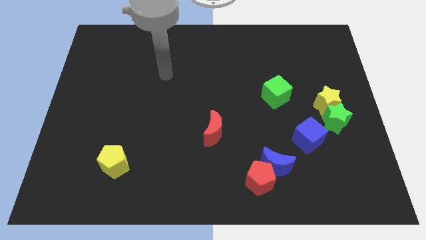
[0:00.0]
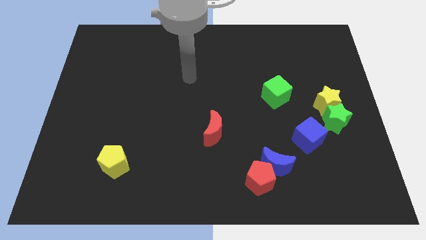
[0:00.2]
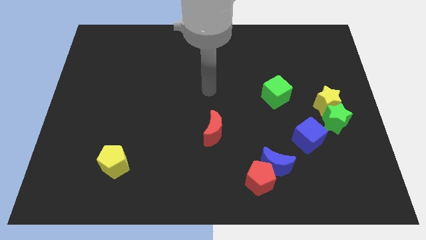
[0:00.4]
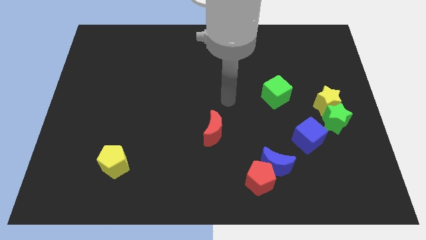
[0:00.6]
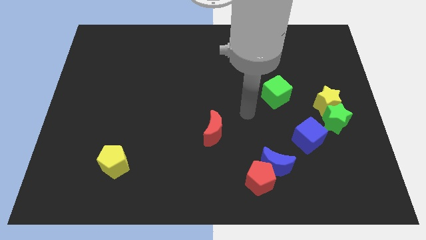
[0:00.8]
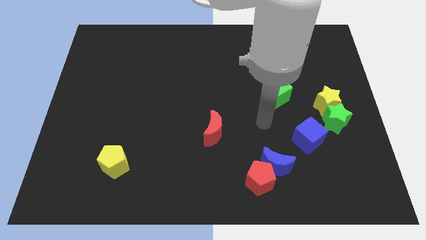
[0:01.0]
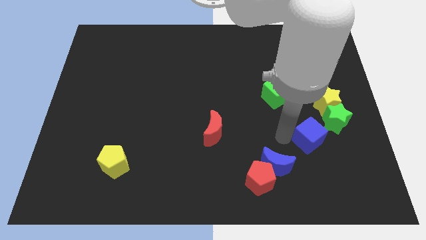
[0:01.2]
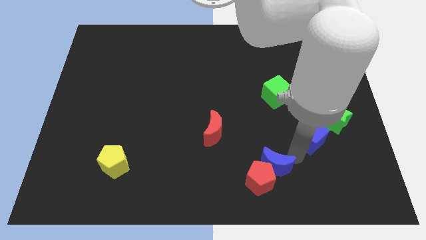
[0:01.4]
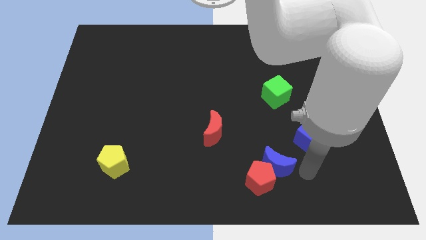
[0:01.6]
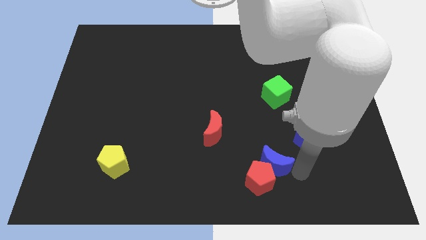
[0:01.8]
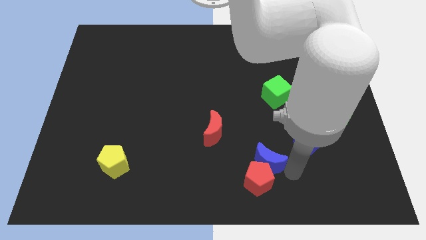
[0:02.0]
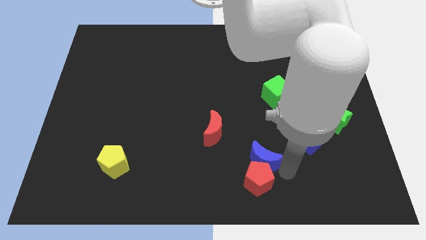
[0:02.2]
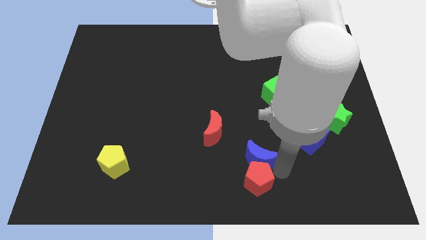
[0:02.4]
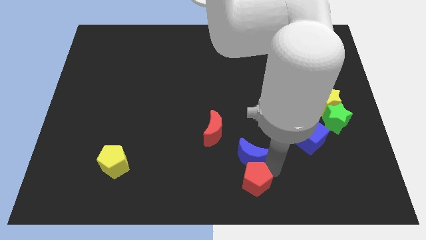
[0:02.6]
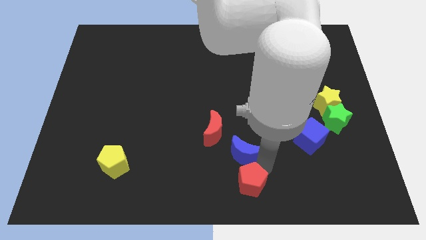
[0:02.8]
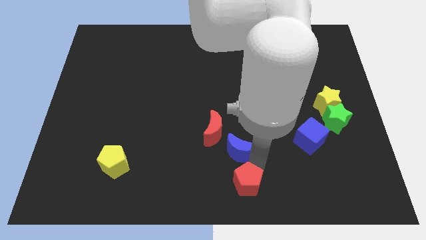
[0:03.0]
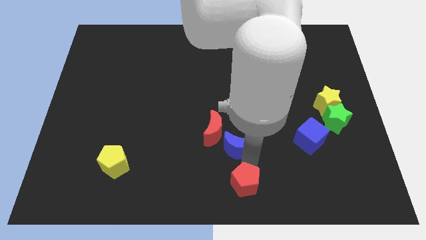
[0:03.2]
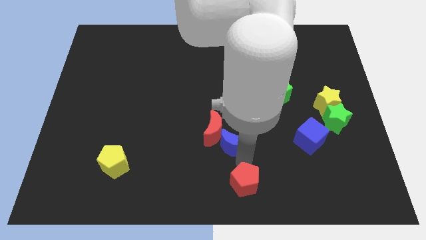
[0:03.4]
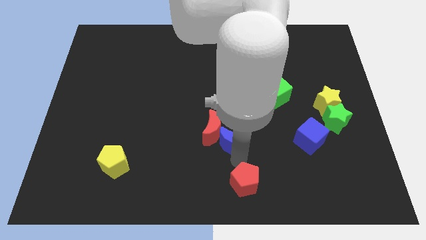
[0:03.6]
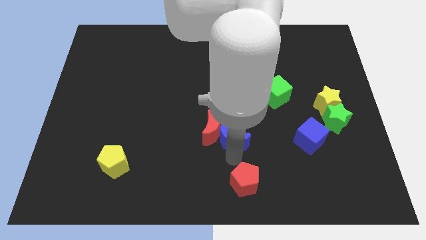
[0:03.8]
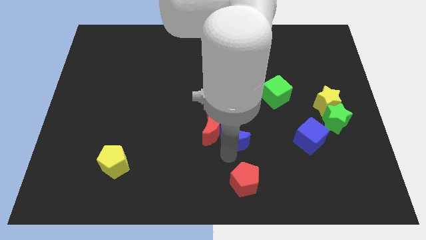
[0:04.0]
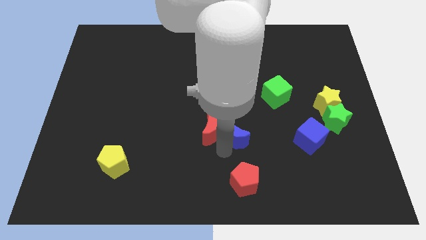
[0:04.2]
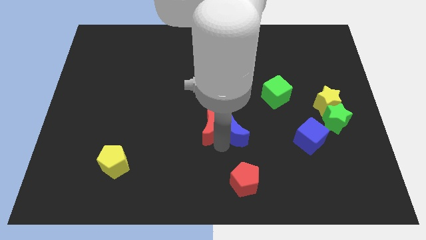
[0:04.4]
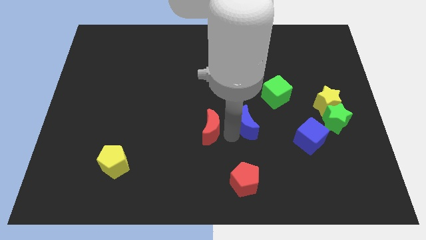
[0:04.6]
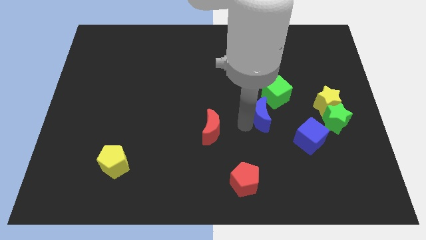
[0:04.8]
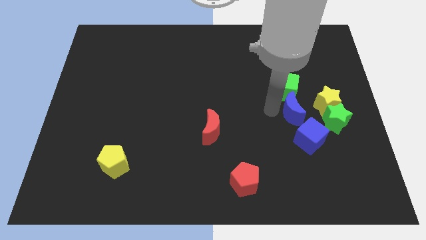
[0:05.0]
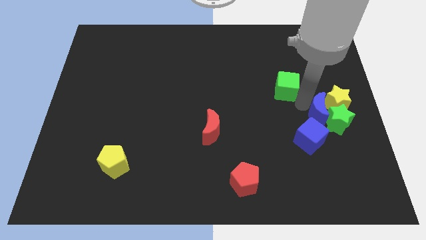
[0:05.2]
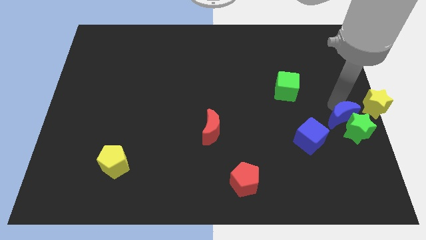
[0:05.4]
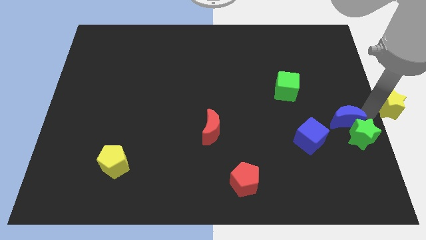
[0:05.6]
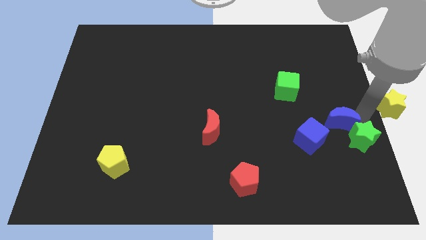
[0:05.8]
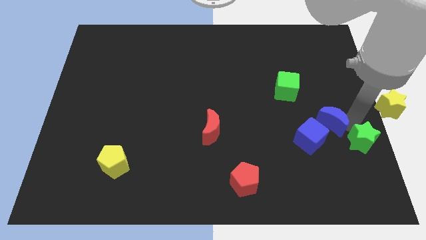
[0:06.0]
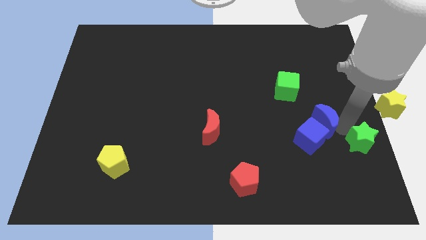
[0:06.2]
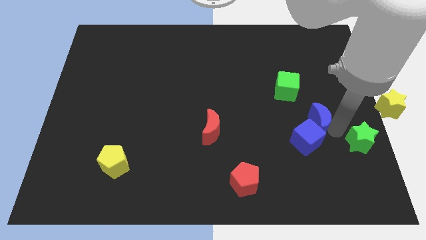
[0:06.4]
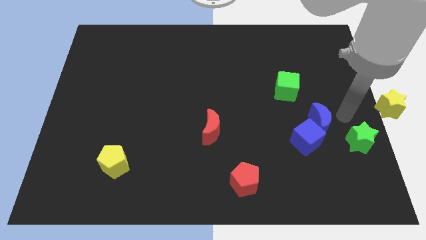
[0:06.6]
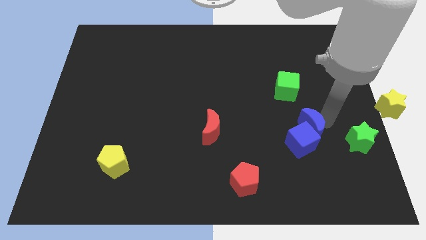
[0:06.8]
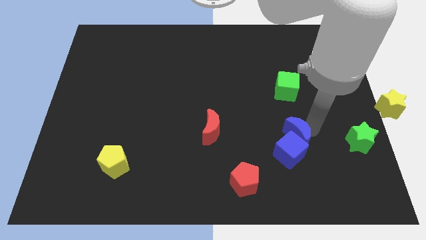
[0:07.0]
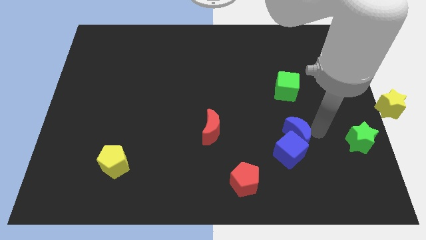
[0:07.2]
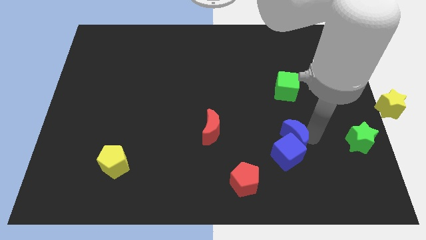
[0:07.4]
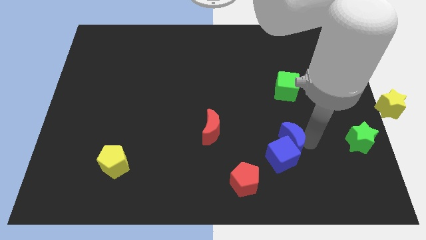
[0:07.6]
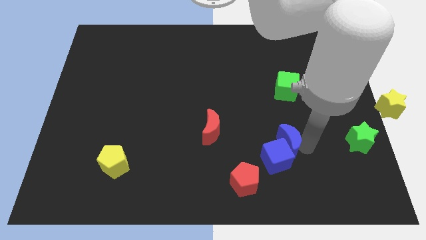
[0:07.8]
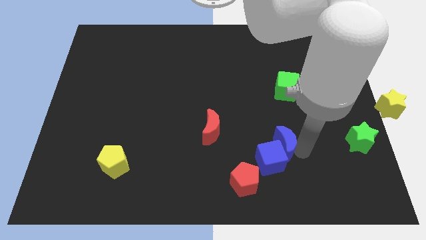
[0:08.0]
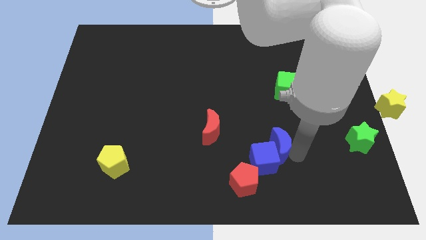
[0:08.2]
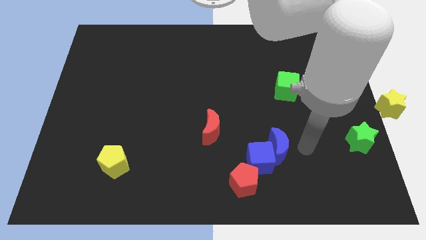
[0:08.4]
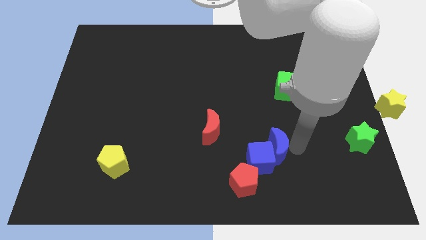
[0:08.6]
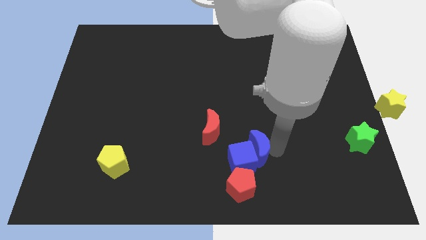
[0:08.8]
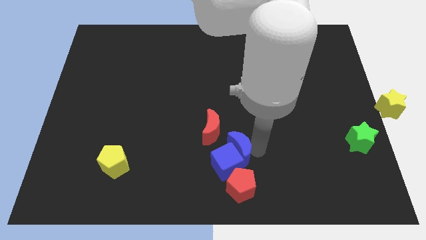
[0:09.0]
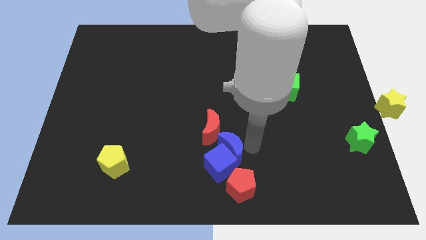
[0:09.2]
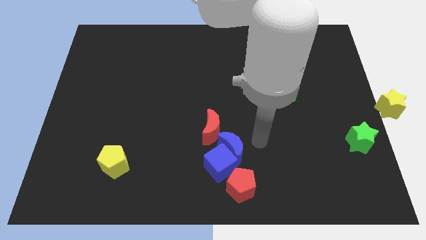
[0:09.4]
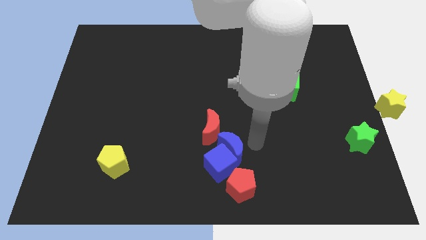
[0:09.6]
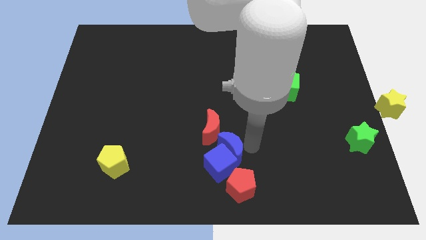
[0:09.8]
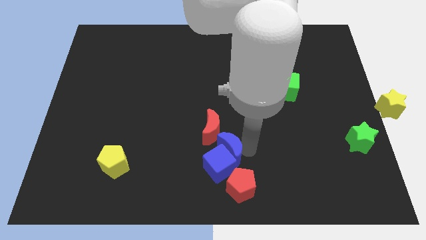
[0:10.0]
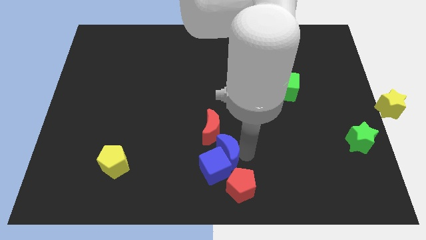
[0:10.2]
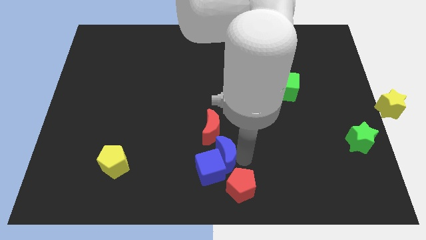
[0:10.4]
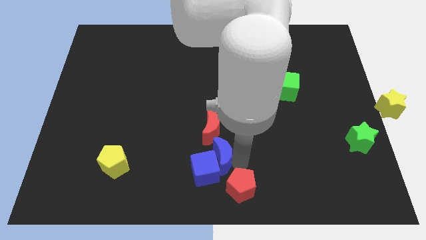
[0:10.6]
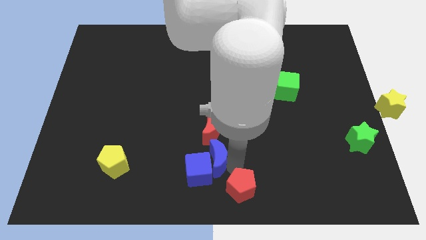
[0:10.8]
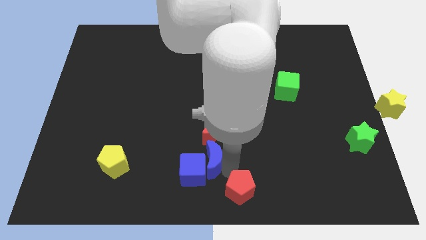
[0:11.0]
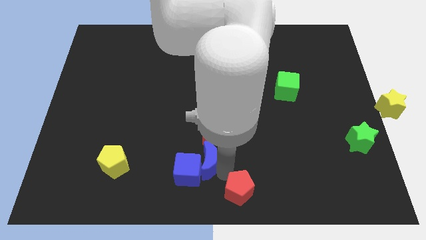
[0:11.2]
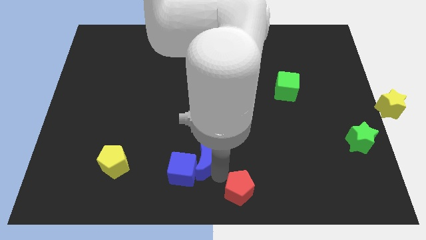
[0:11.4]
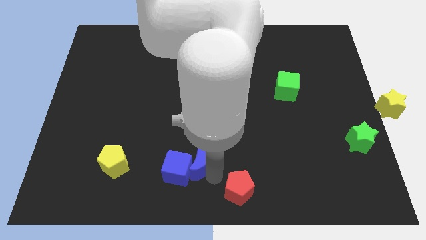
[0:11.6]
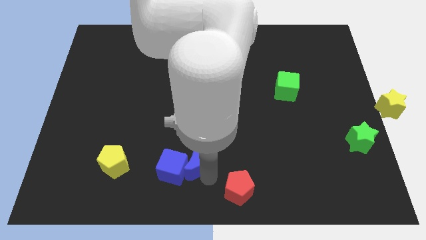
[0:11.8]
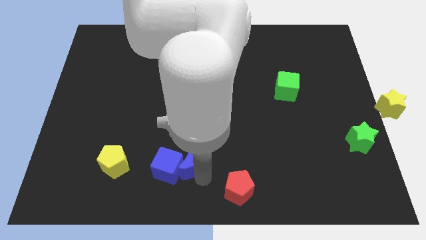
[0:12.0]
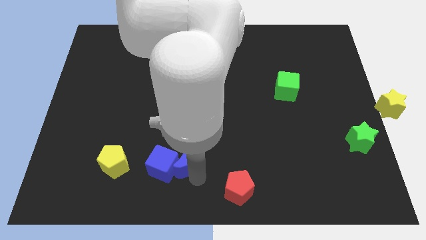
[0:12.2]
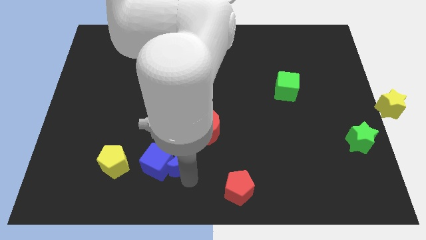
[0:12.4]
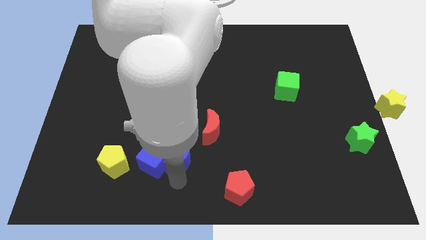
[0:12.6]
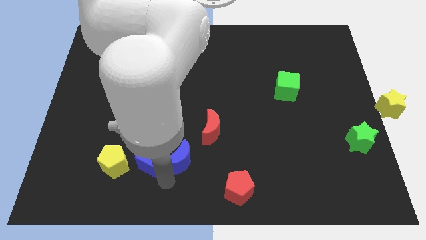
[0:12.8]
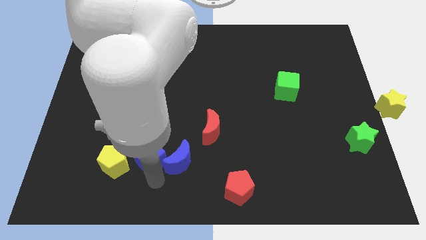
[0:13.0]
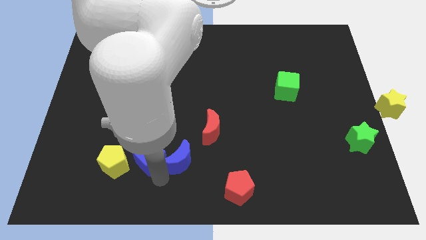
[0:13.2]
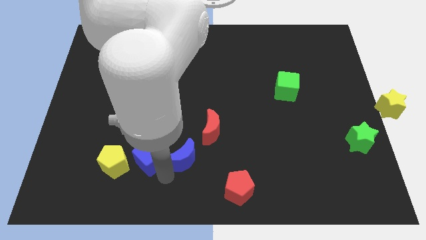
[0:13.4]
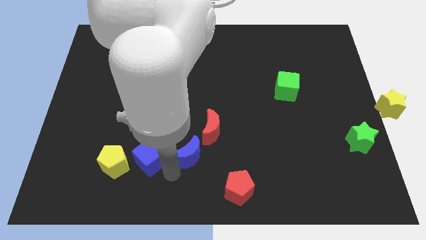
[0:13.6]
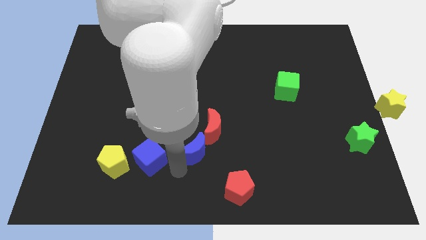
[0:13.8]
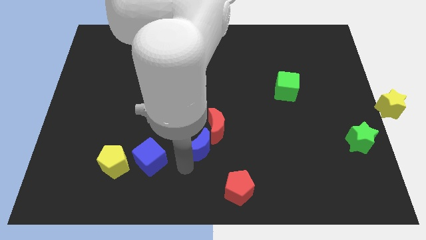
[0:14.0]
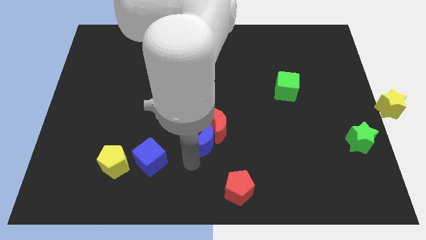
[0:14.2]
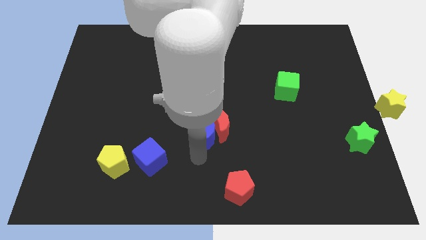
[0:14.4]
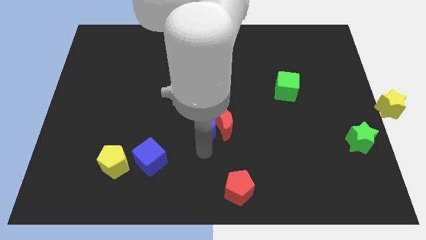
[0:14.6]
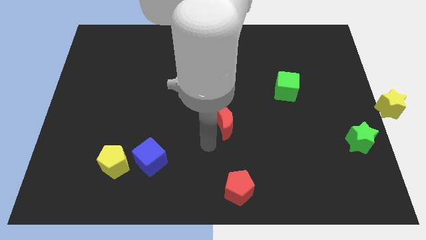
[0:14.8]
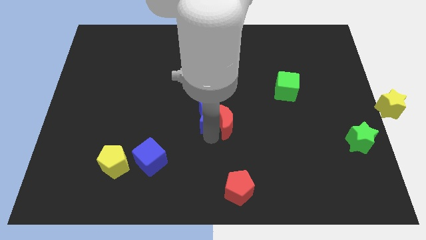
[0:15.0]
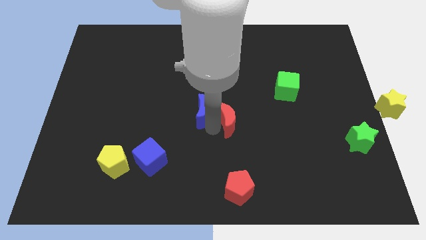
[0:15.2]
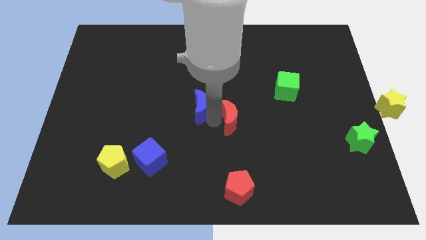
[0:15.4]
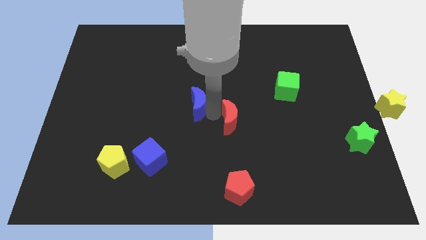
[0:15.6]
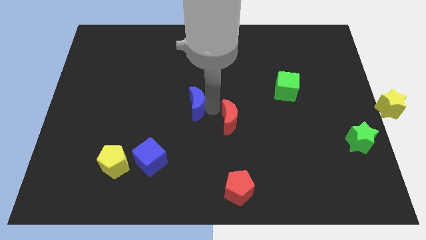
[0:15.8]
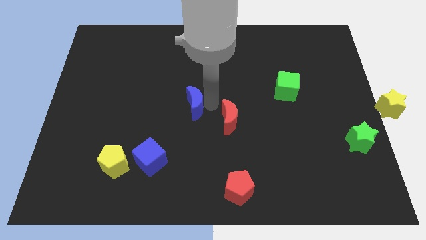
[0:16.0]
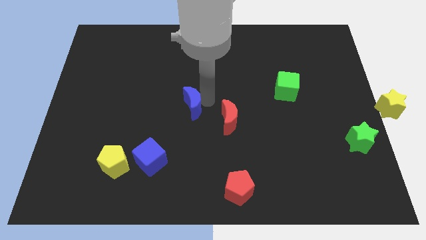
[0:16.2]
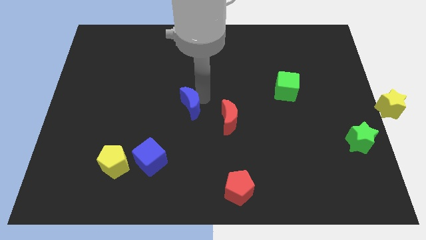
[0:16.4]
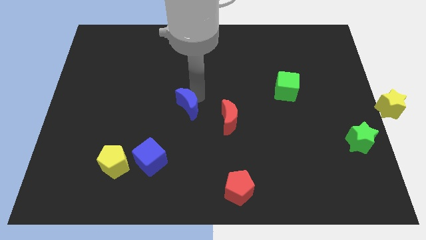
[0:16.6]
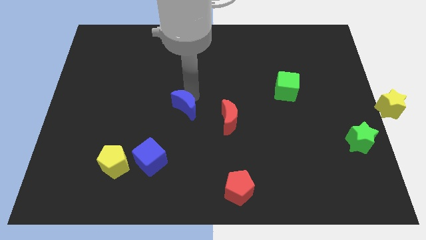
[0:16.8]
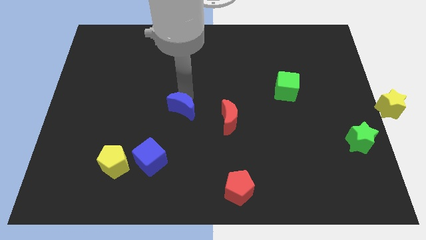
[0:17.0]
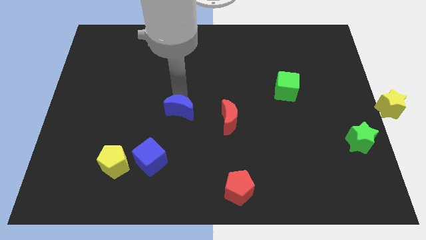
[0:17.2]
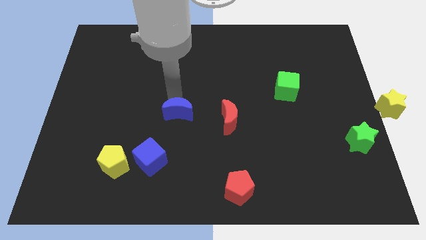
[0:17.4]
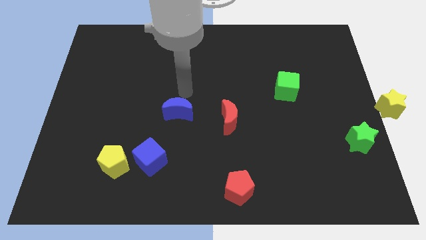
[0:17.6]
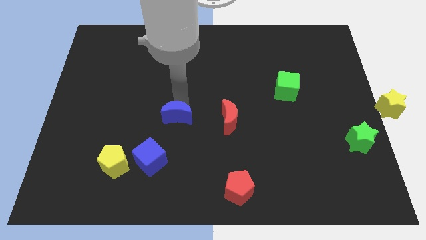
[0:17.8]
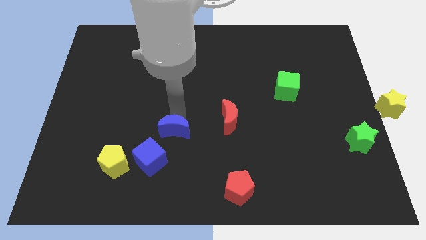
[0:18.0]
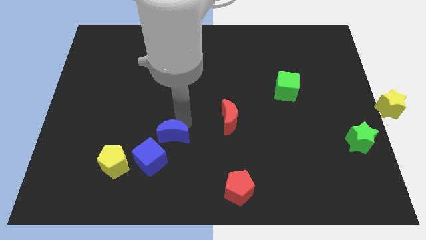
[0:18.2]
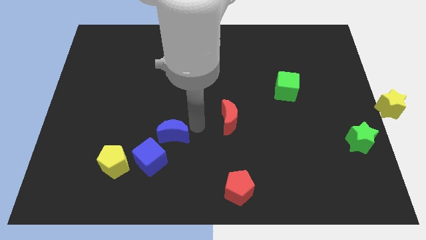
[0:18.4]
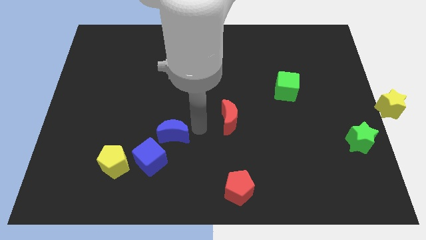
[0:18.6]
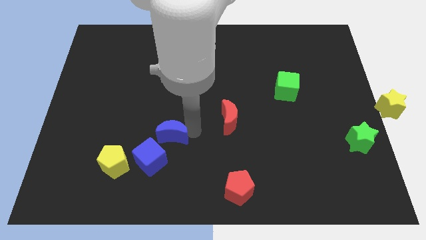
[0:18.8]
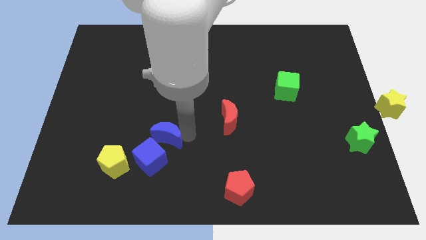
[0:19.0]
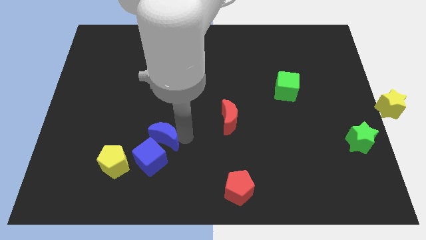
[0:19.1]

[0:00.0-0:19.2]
slide the blue moon to the top right of the yellow pentagon
